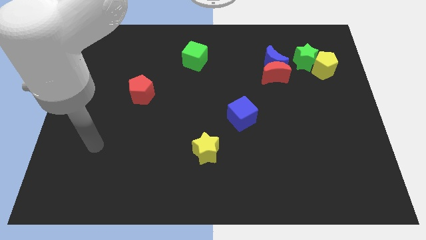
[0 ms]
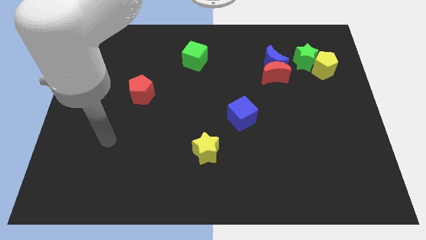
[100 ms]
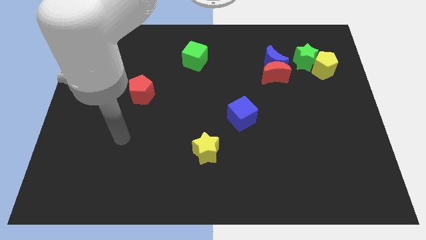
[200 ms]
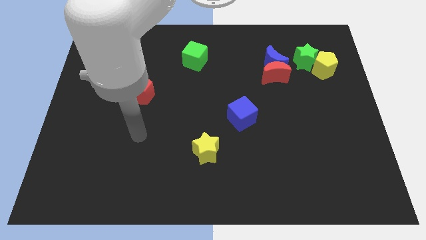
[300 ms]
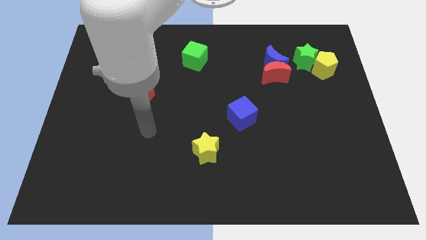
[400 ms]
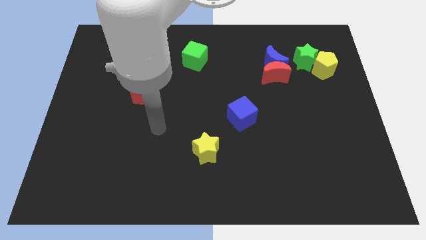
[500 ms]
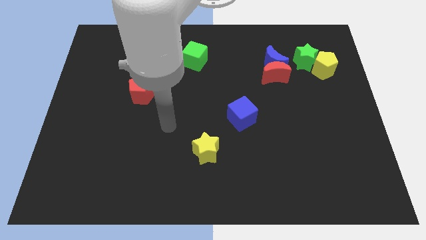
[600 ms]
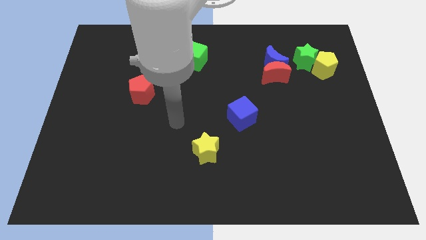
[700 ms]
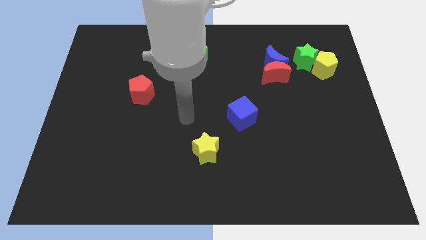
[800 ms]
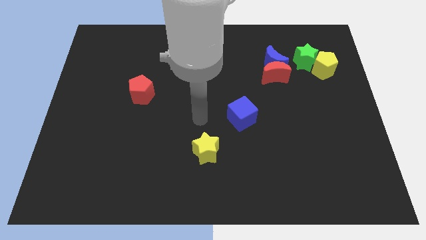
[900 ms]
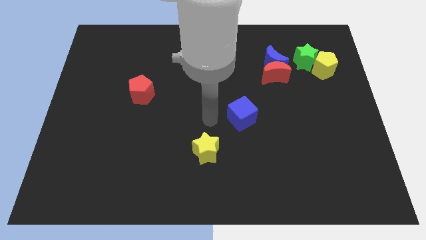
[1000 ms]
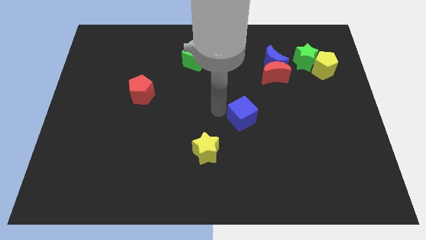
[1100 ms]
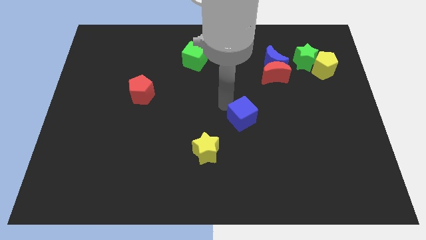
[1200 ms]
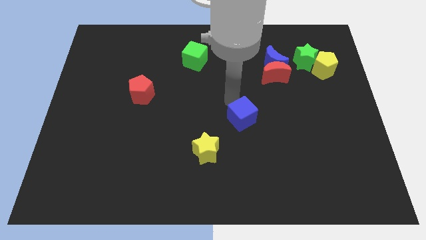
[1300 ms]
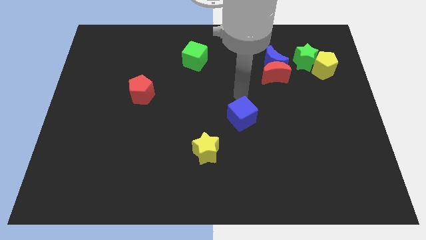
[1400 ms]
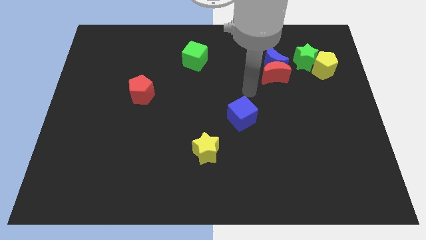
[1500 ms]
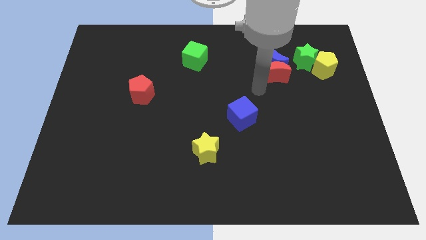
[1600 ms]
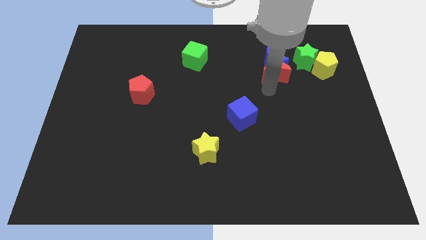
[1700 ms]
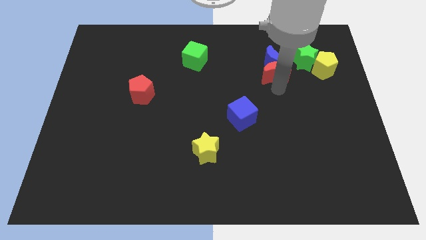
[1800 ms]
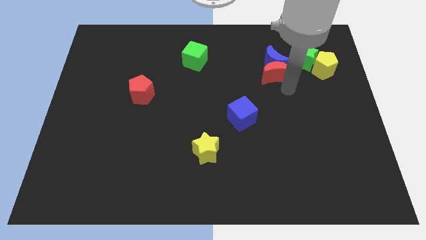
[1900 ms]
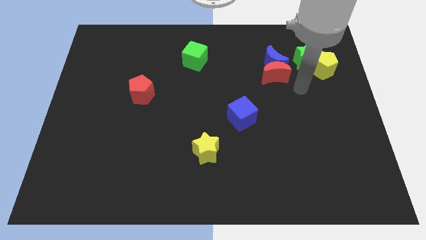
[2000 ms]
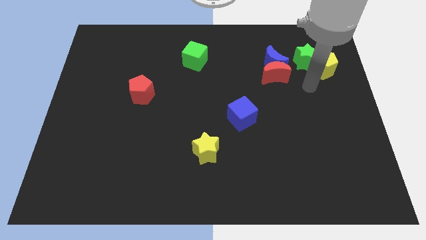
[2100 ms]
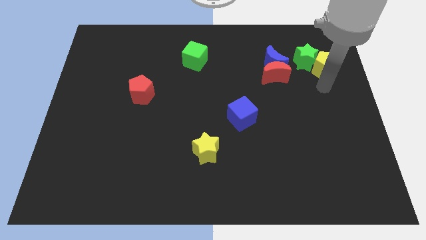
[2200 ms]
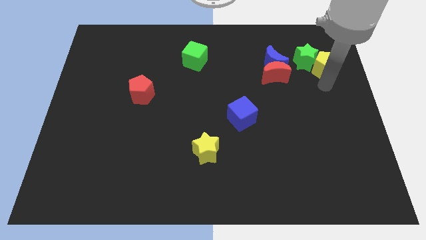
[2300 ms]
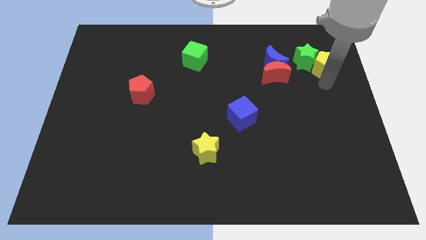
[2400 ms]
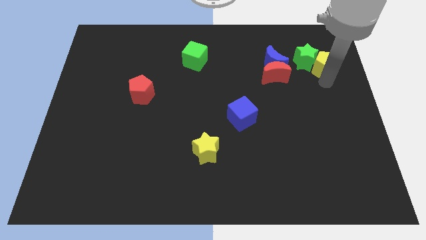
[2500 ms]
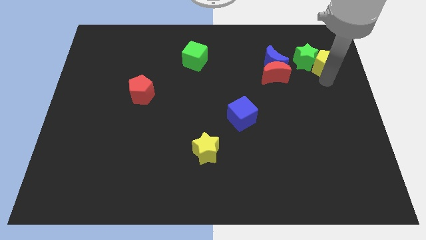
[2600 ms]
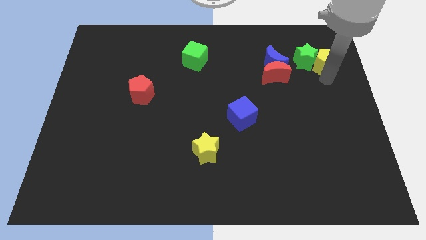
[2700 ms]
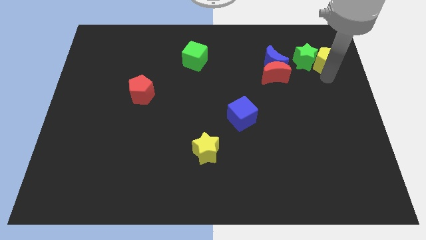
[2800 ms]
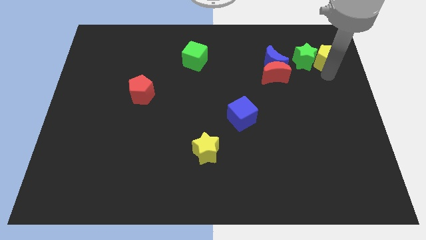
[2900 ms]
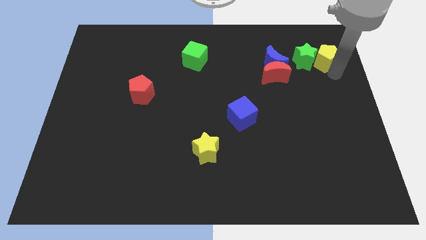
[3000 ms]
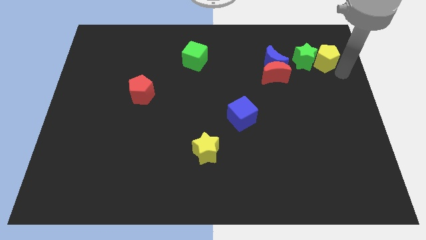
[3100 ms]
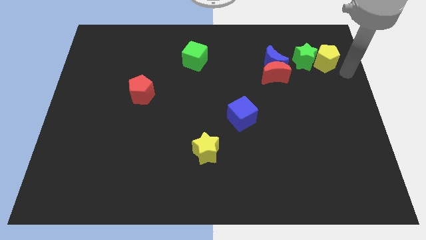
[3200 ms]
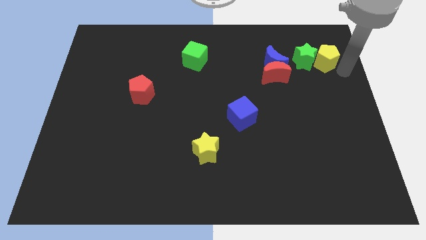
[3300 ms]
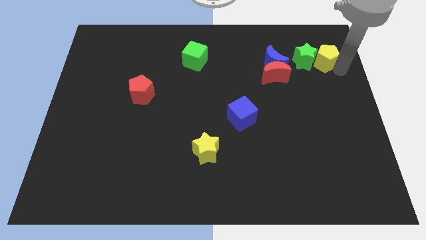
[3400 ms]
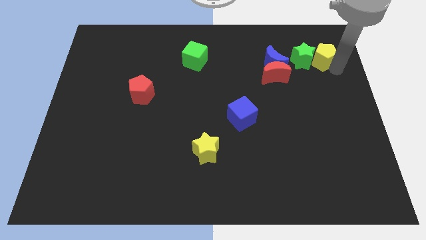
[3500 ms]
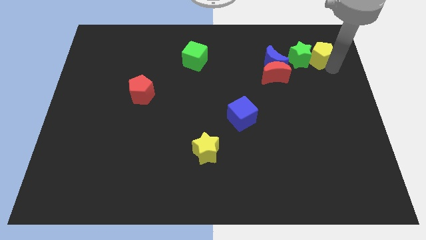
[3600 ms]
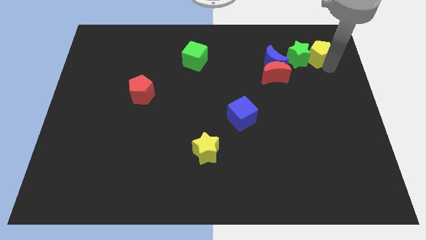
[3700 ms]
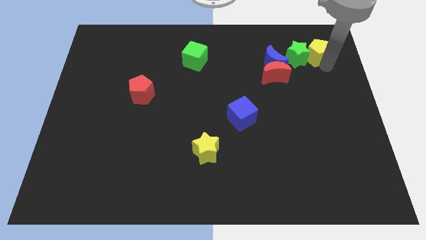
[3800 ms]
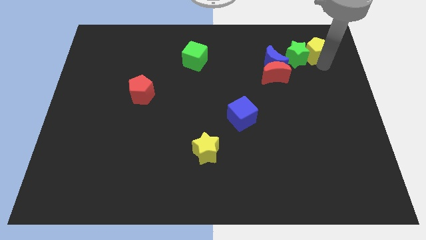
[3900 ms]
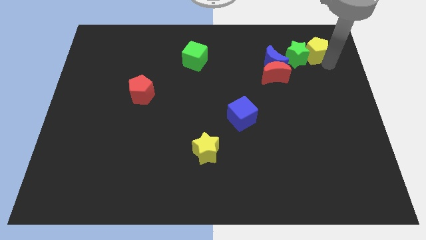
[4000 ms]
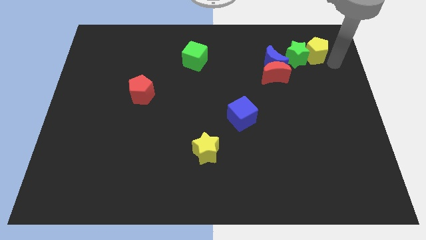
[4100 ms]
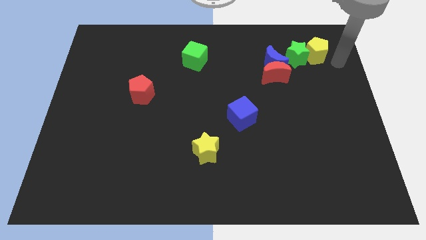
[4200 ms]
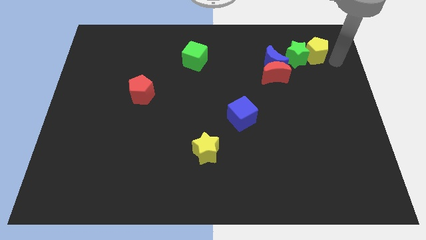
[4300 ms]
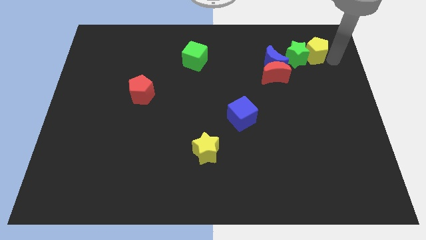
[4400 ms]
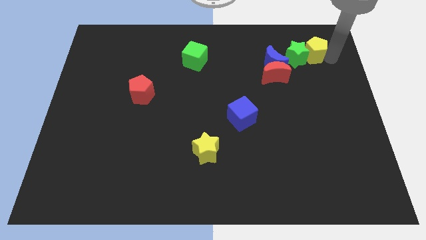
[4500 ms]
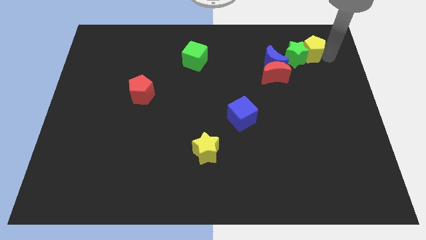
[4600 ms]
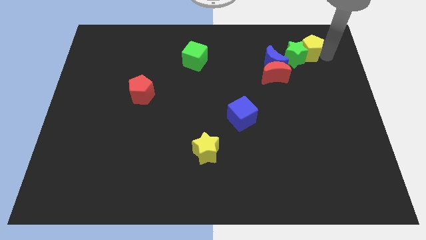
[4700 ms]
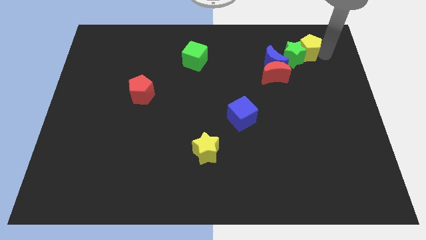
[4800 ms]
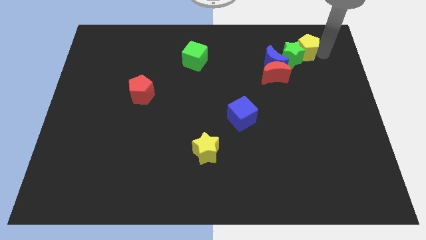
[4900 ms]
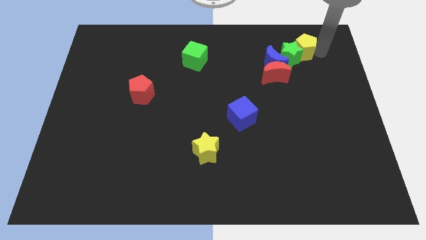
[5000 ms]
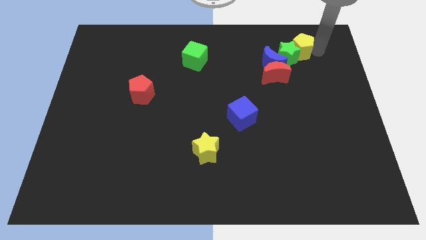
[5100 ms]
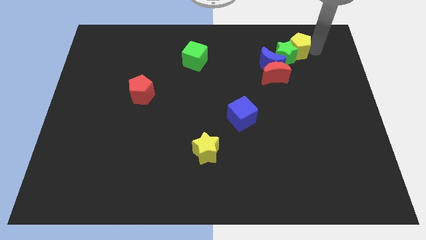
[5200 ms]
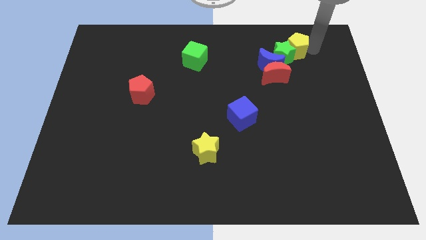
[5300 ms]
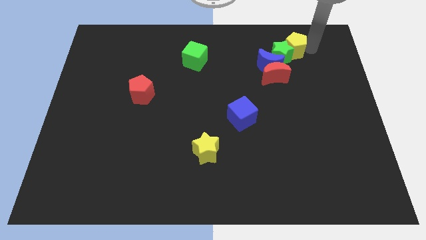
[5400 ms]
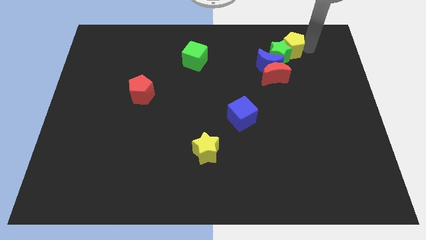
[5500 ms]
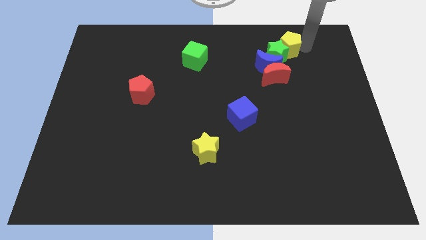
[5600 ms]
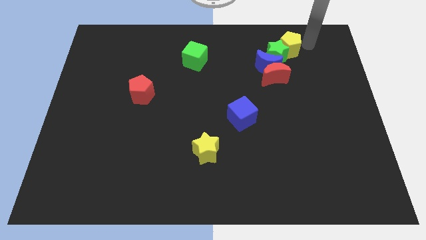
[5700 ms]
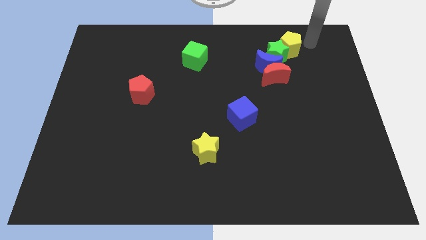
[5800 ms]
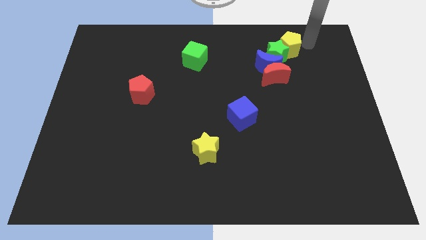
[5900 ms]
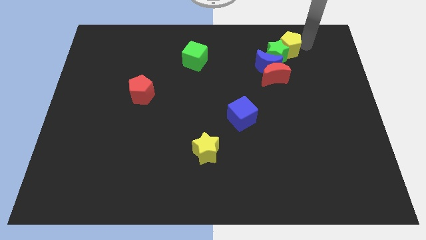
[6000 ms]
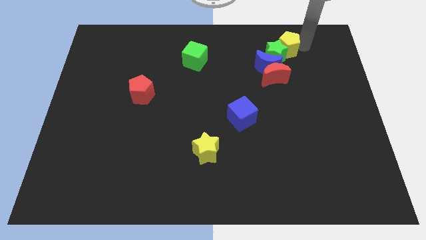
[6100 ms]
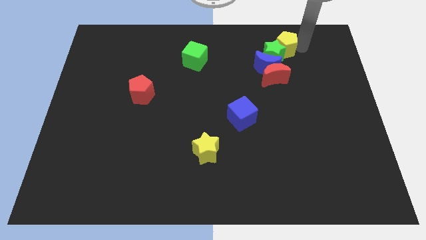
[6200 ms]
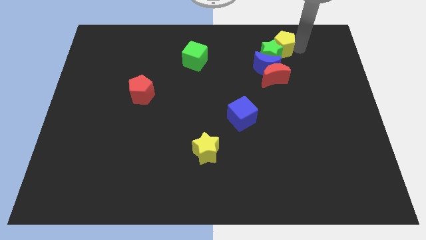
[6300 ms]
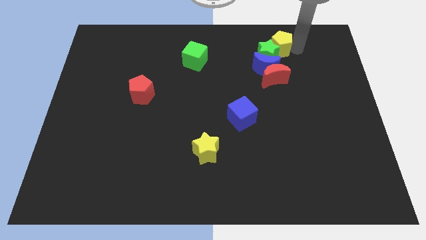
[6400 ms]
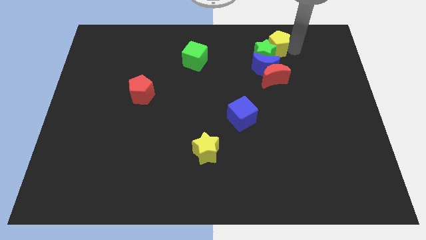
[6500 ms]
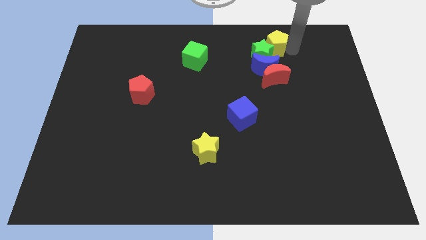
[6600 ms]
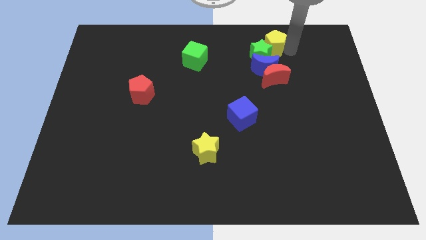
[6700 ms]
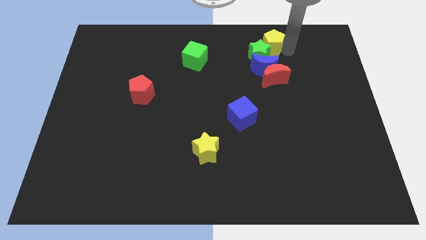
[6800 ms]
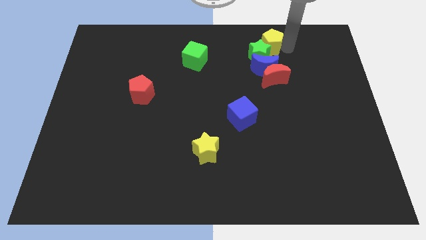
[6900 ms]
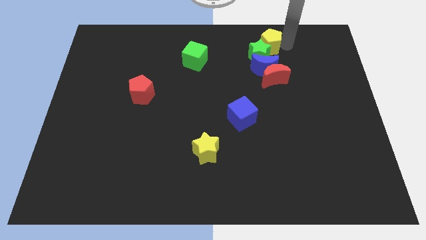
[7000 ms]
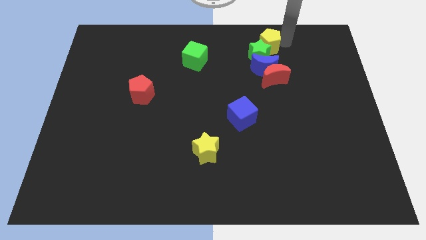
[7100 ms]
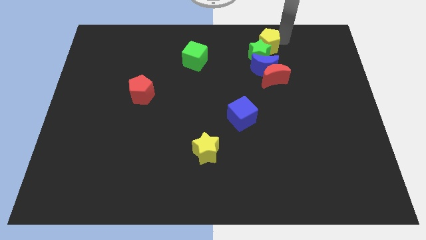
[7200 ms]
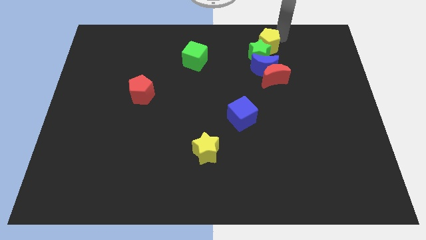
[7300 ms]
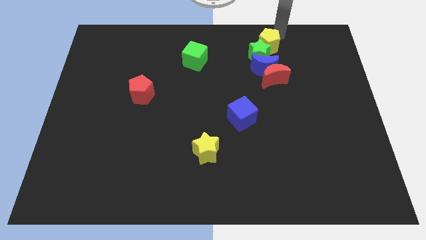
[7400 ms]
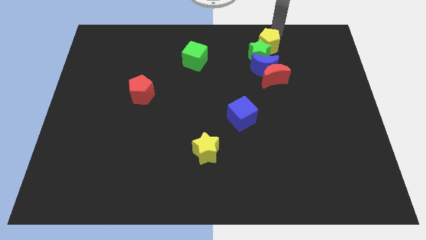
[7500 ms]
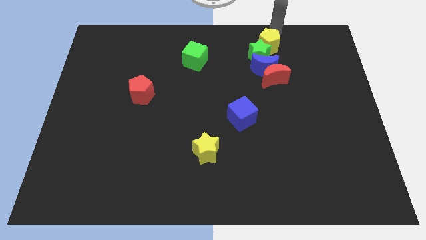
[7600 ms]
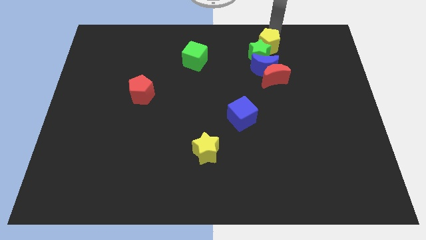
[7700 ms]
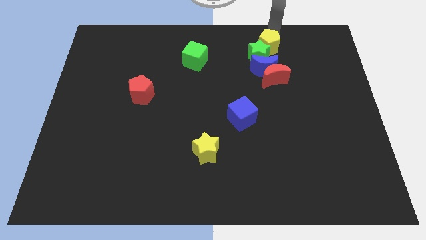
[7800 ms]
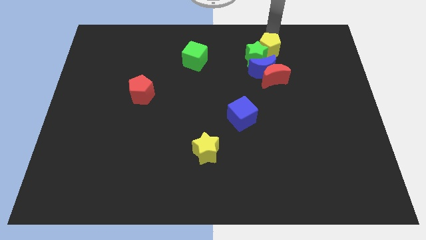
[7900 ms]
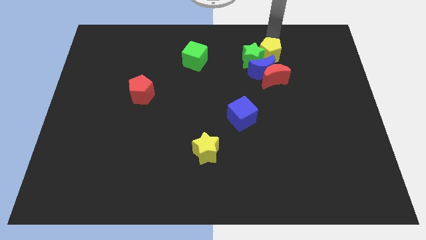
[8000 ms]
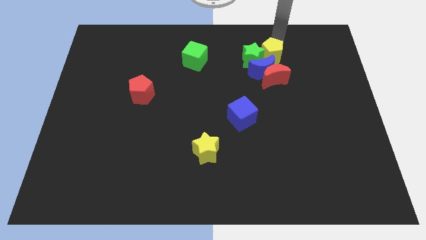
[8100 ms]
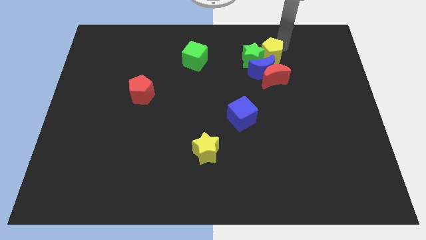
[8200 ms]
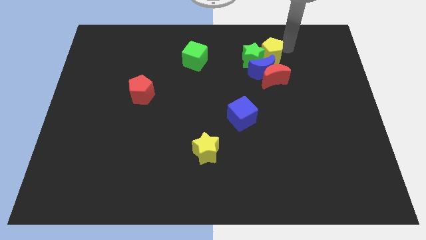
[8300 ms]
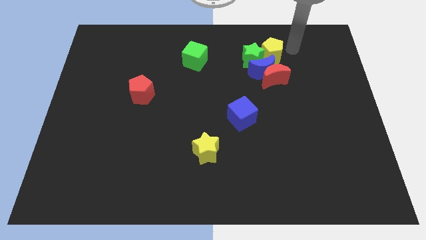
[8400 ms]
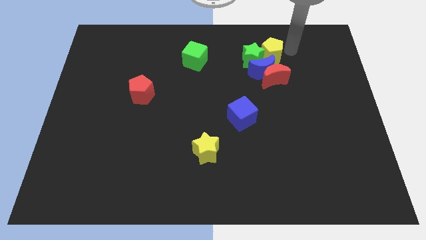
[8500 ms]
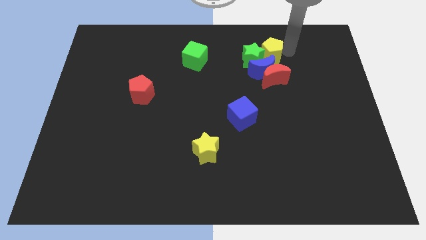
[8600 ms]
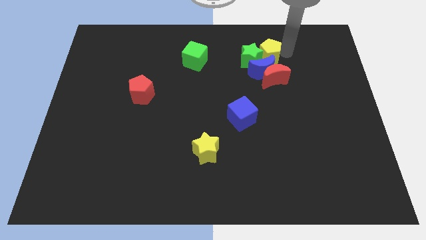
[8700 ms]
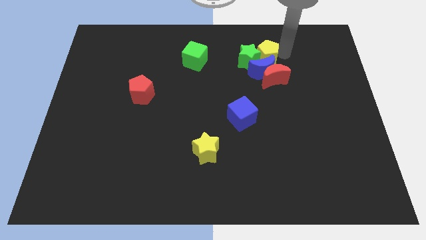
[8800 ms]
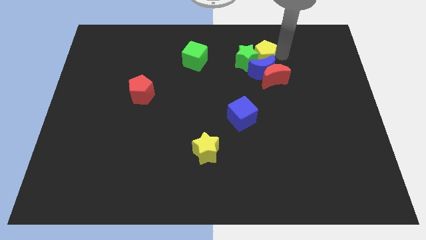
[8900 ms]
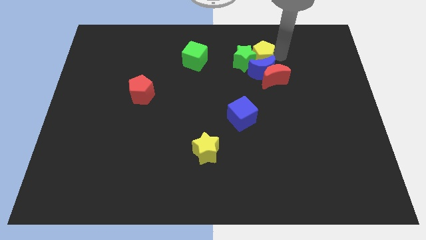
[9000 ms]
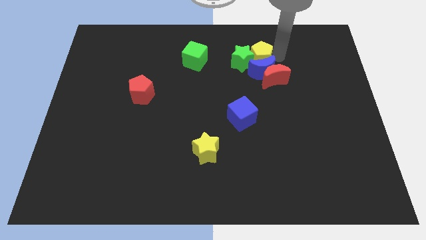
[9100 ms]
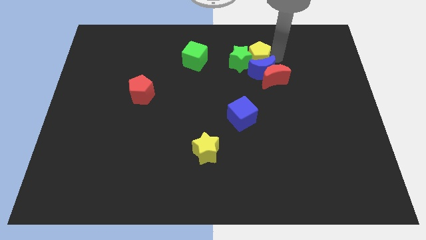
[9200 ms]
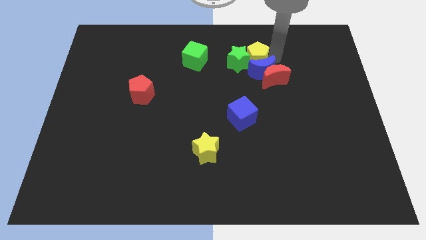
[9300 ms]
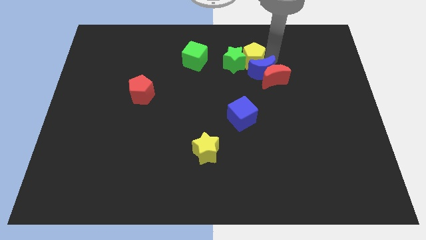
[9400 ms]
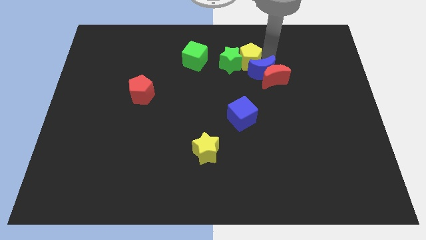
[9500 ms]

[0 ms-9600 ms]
put the yellow pentagon to the left side of the blue moon
